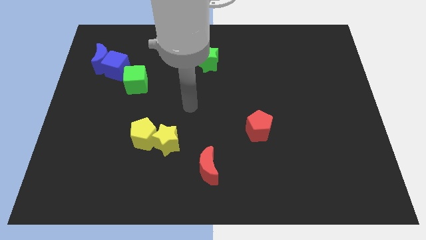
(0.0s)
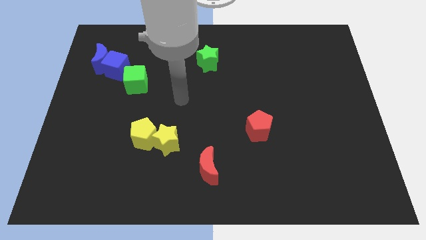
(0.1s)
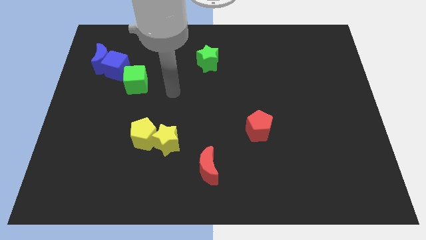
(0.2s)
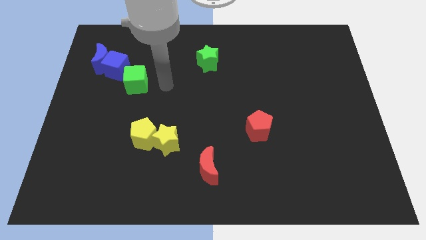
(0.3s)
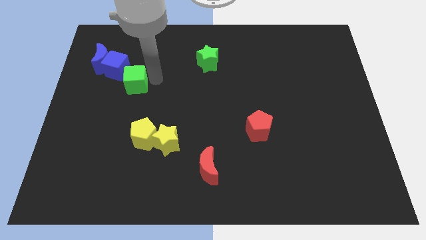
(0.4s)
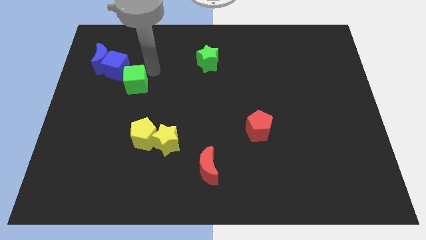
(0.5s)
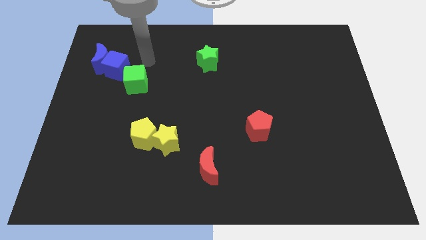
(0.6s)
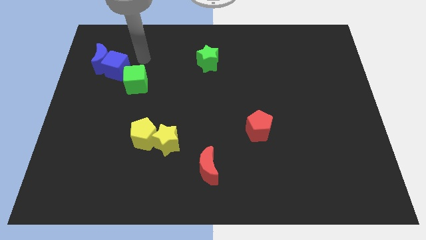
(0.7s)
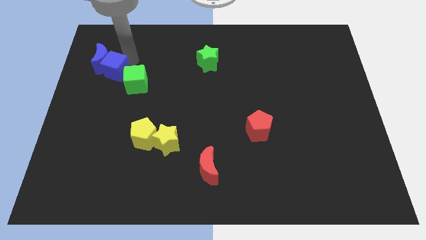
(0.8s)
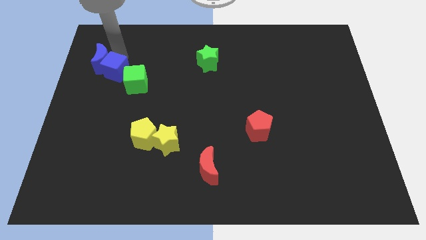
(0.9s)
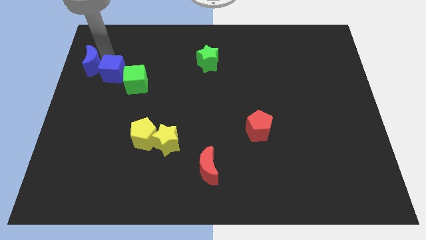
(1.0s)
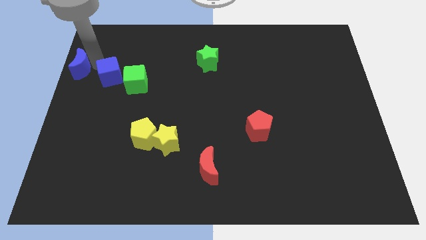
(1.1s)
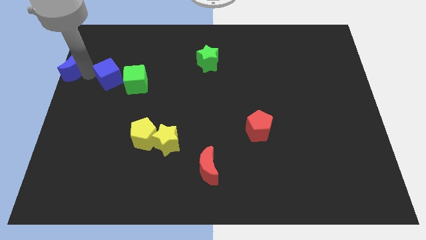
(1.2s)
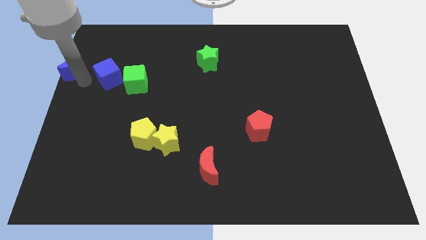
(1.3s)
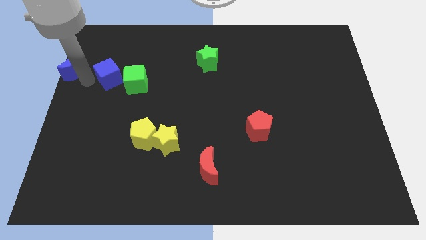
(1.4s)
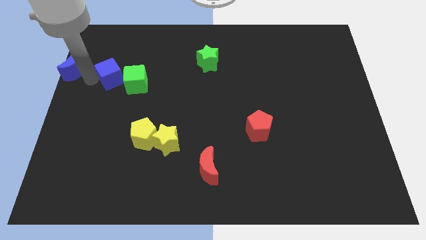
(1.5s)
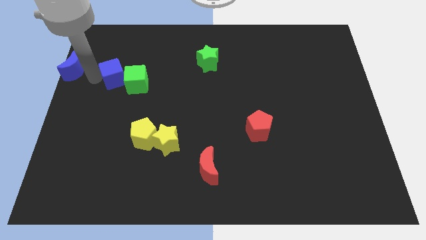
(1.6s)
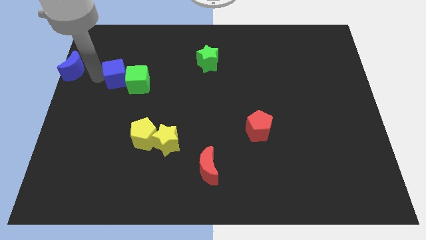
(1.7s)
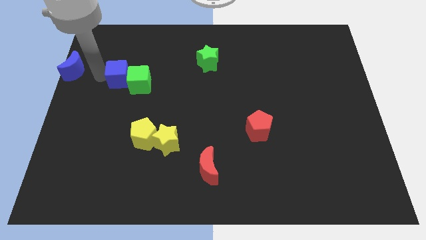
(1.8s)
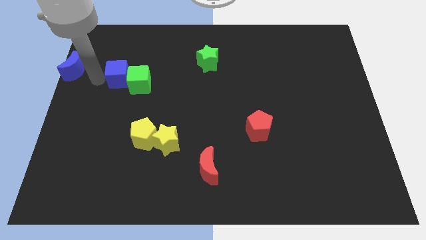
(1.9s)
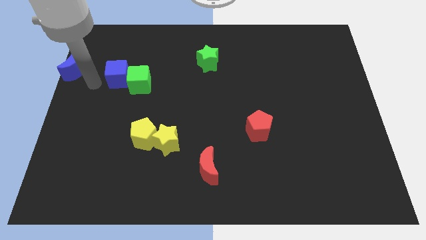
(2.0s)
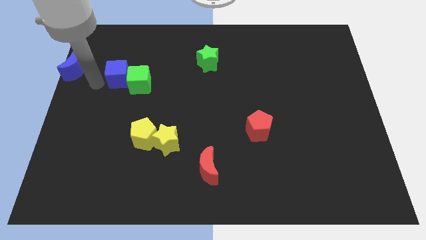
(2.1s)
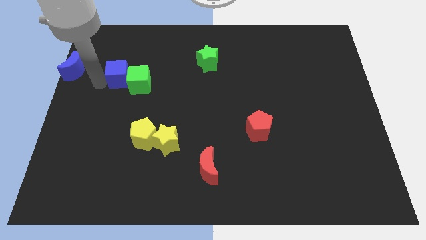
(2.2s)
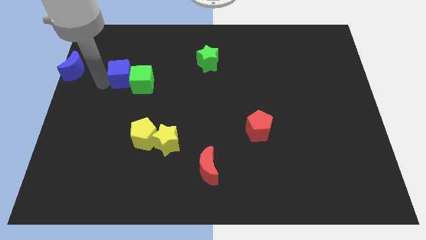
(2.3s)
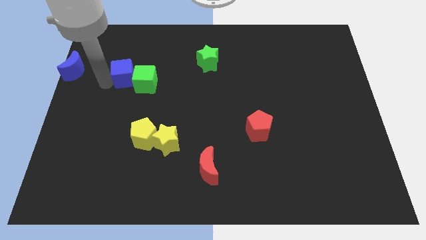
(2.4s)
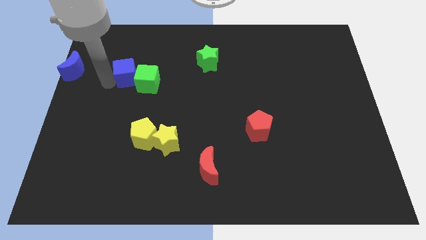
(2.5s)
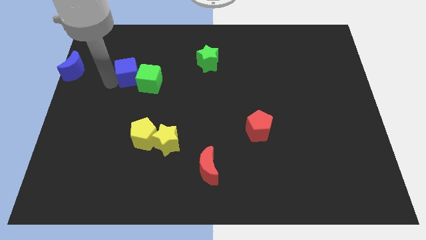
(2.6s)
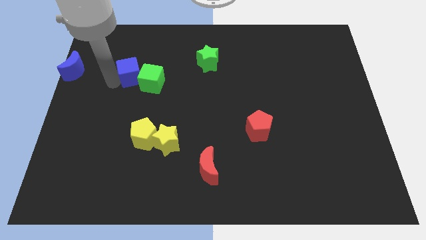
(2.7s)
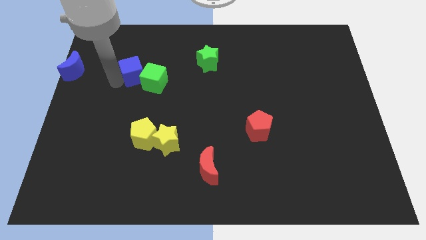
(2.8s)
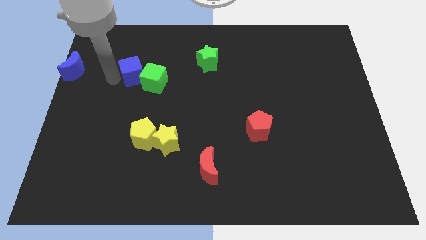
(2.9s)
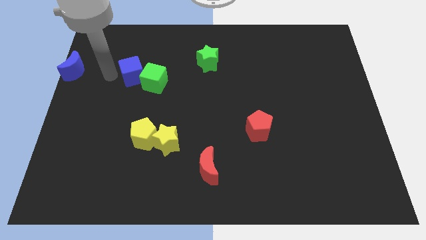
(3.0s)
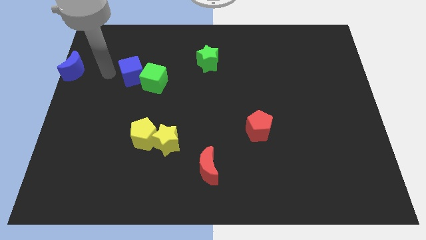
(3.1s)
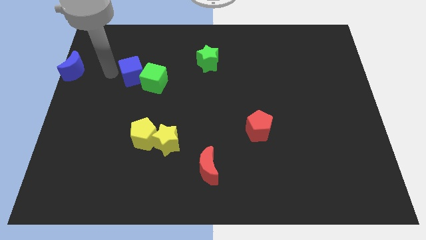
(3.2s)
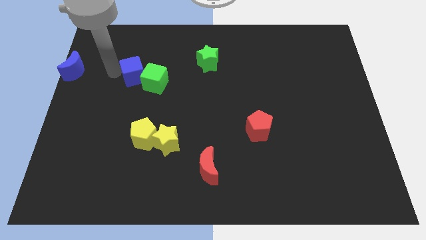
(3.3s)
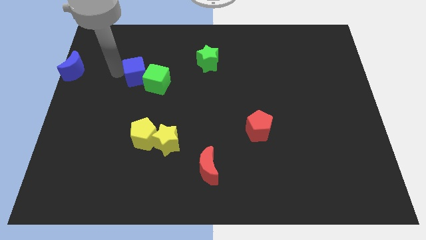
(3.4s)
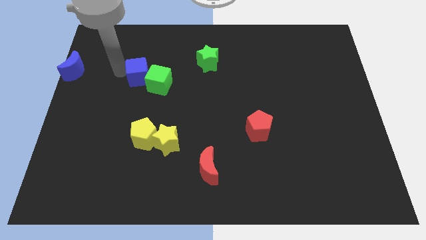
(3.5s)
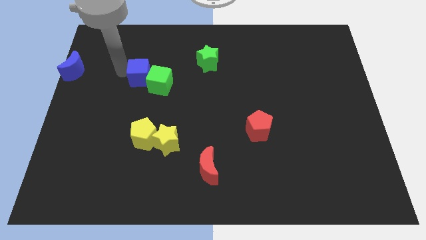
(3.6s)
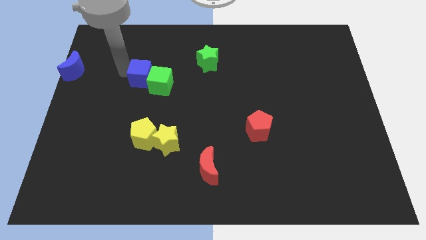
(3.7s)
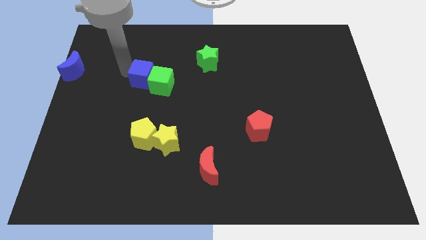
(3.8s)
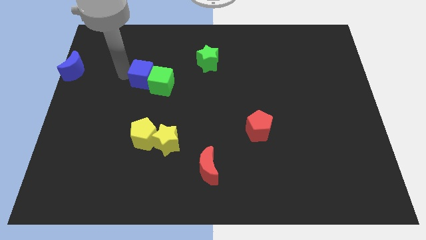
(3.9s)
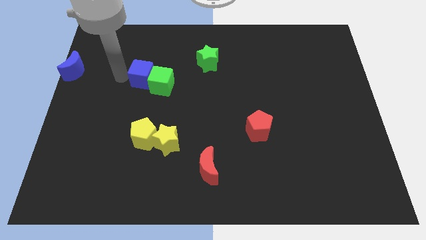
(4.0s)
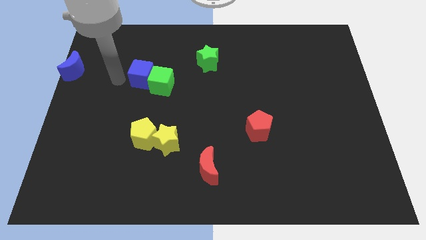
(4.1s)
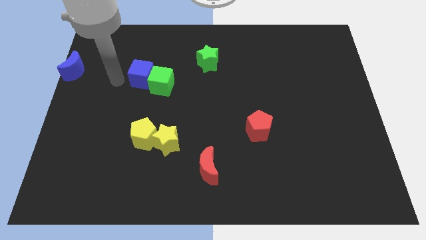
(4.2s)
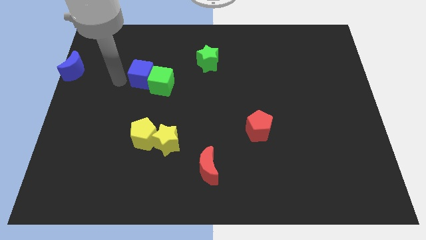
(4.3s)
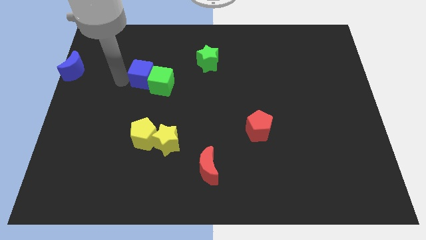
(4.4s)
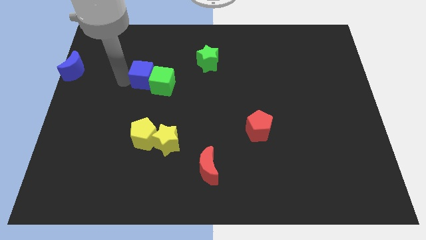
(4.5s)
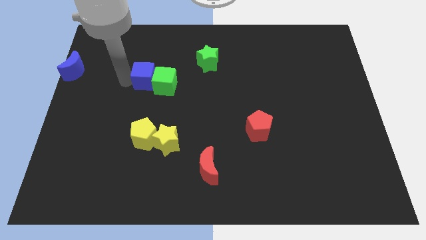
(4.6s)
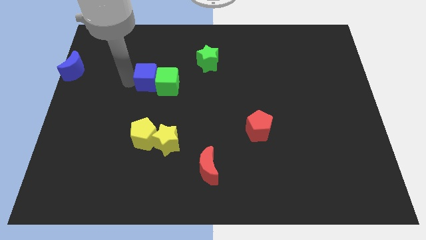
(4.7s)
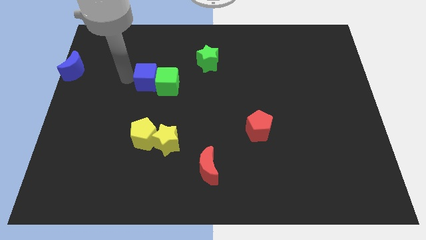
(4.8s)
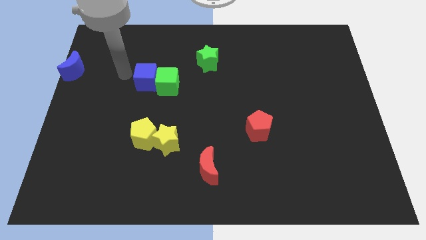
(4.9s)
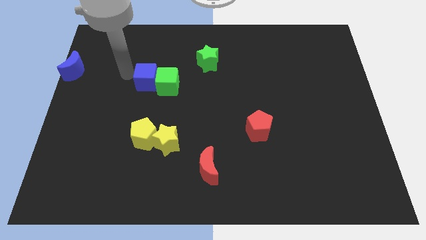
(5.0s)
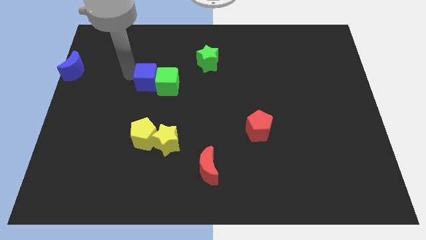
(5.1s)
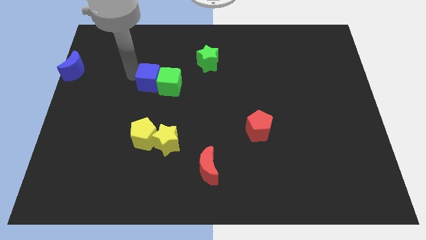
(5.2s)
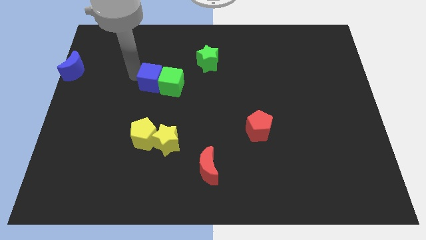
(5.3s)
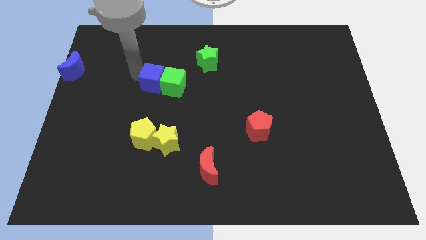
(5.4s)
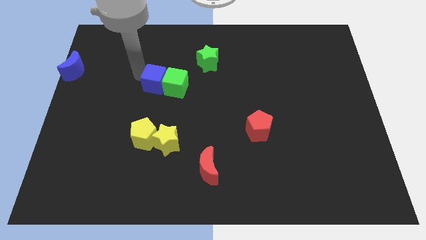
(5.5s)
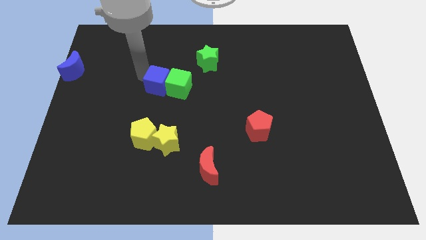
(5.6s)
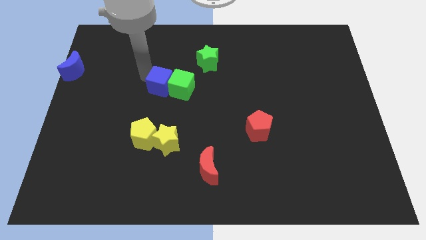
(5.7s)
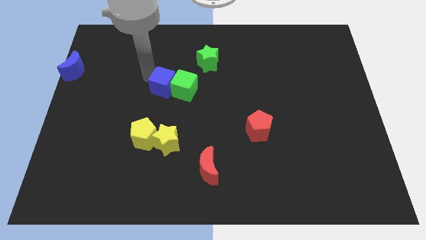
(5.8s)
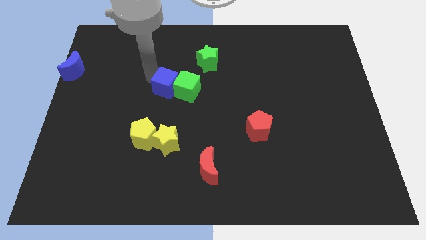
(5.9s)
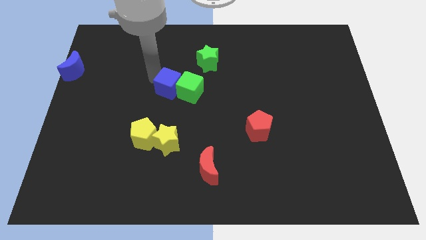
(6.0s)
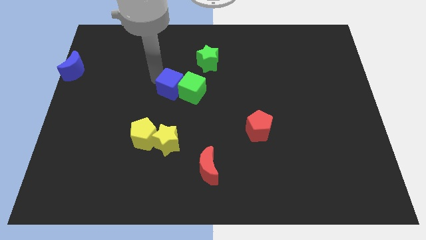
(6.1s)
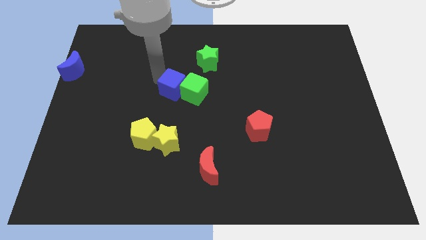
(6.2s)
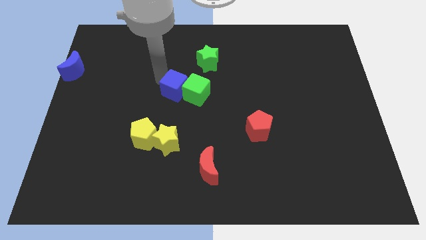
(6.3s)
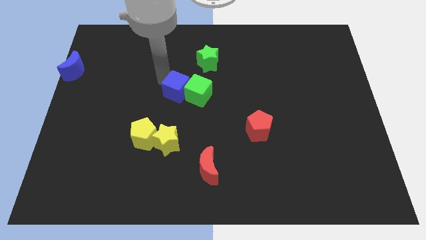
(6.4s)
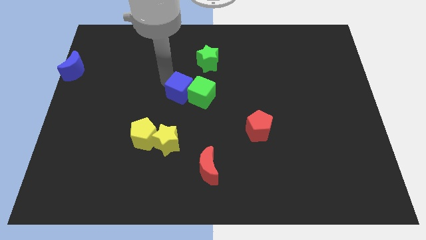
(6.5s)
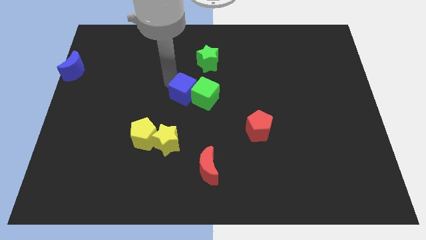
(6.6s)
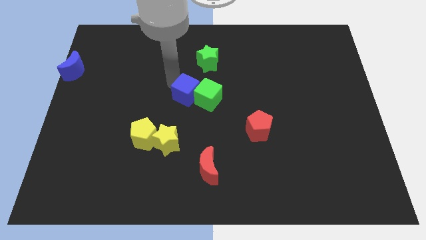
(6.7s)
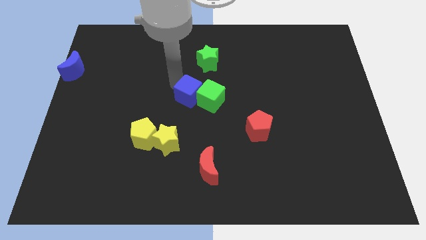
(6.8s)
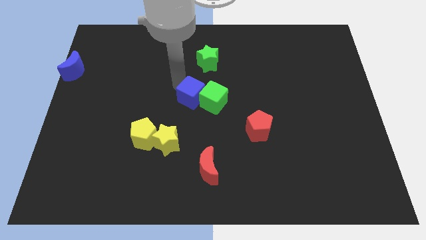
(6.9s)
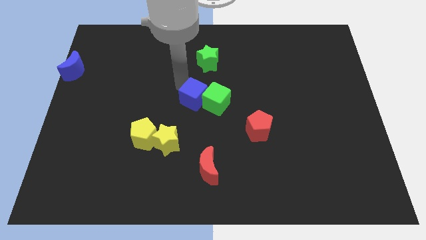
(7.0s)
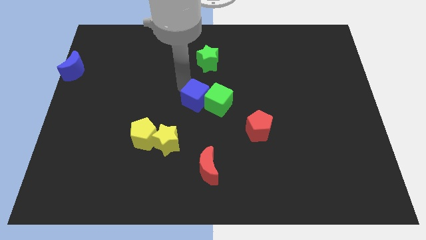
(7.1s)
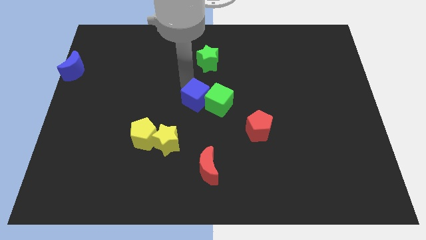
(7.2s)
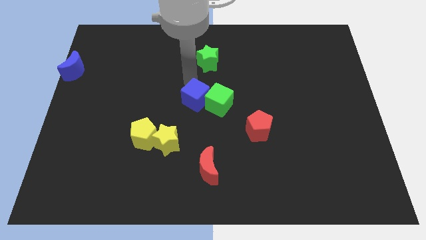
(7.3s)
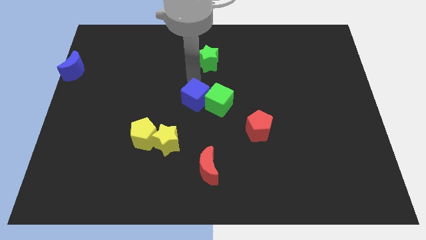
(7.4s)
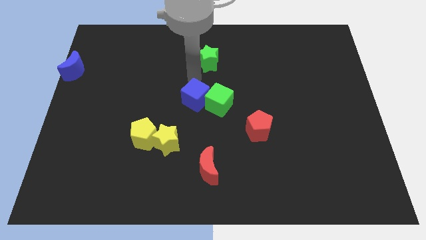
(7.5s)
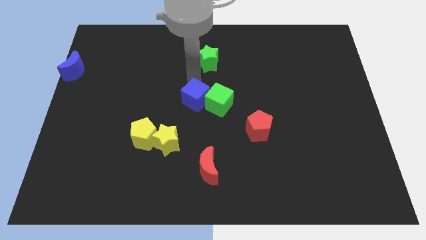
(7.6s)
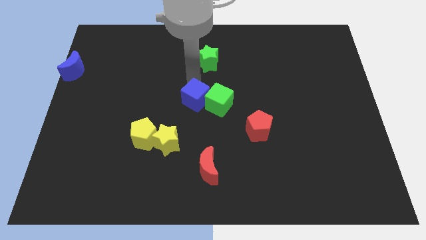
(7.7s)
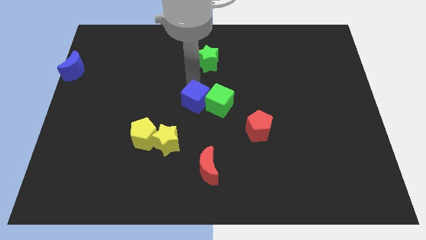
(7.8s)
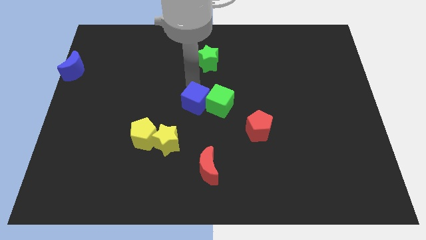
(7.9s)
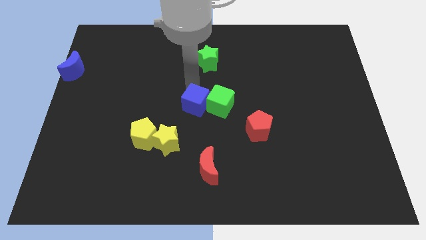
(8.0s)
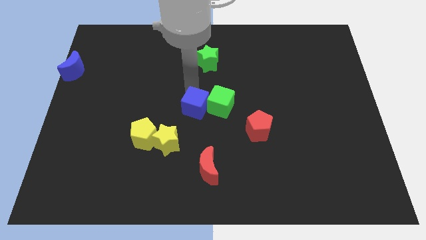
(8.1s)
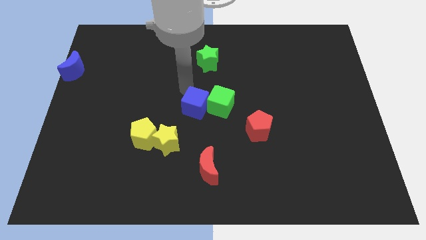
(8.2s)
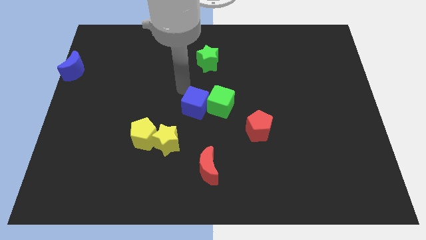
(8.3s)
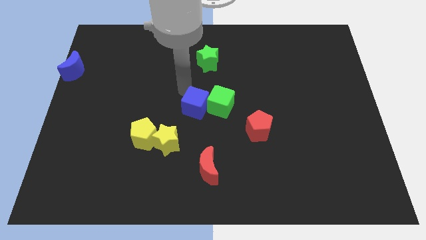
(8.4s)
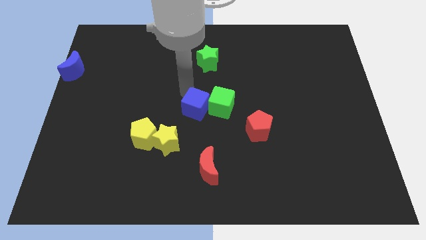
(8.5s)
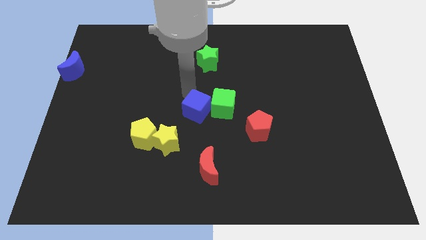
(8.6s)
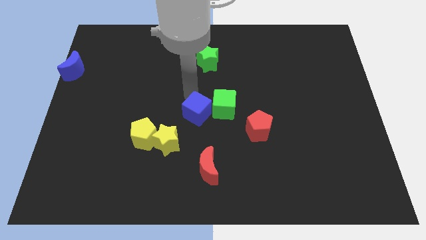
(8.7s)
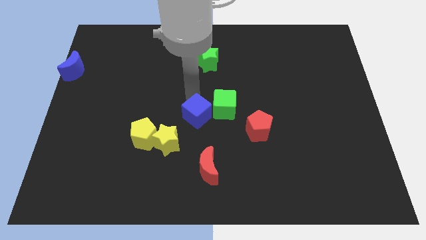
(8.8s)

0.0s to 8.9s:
move the blue cube to the left of the red pentagon
